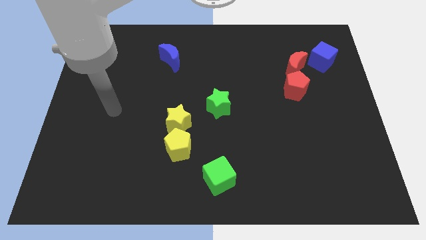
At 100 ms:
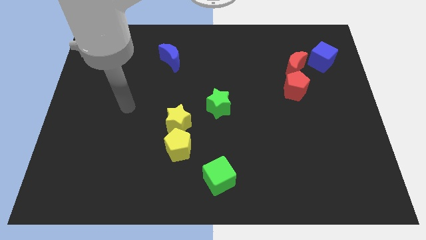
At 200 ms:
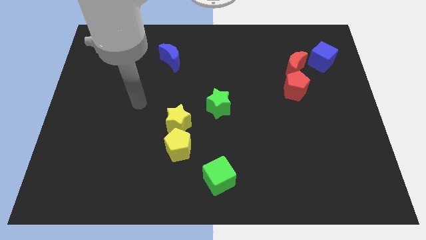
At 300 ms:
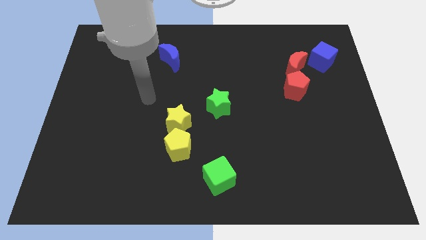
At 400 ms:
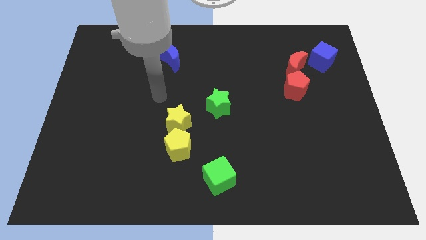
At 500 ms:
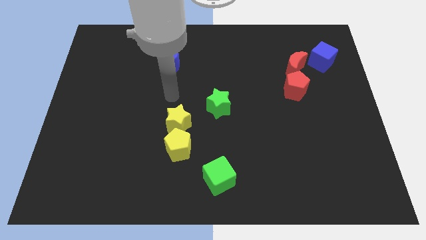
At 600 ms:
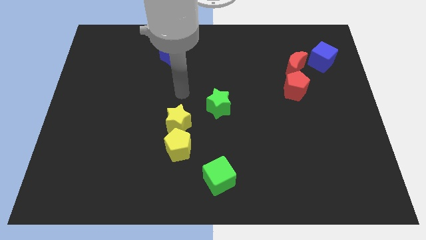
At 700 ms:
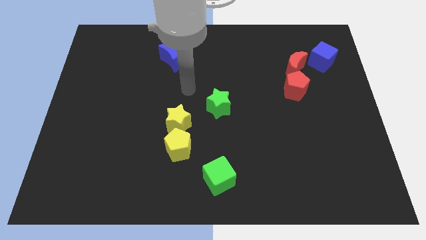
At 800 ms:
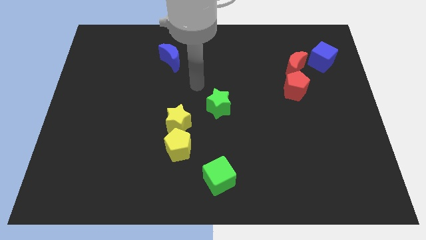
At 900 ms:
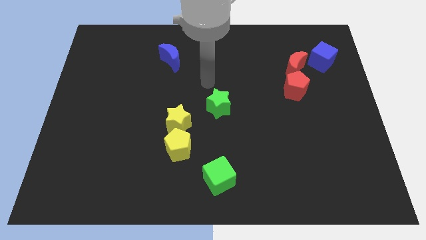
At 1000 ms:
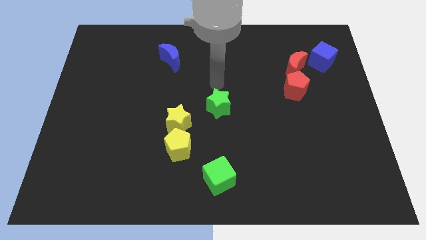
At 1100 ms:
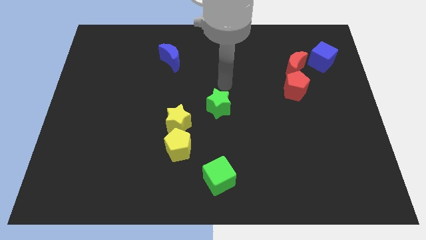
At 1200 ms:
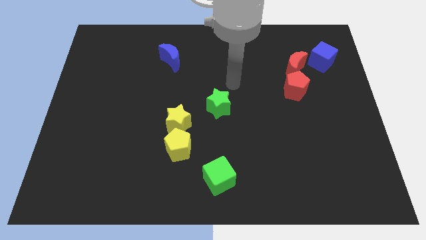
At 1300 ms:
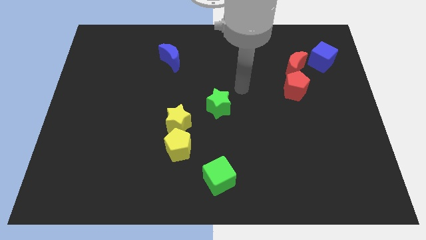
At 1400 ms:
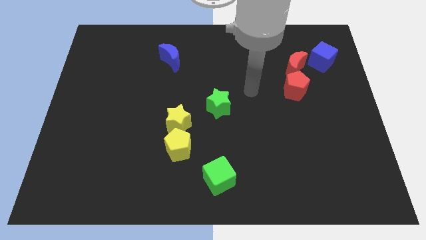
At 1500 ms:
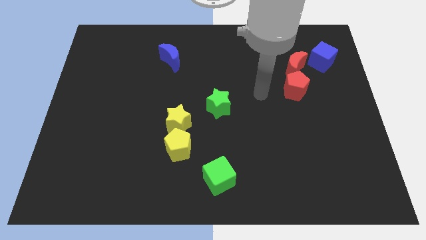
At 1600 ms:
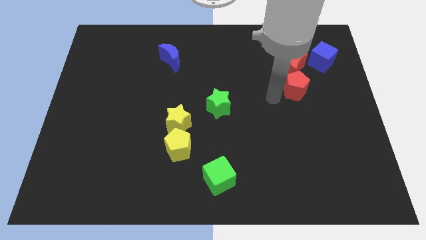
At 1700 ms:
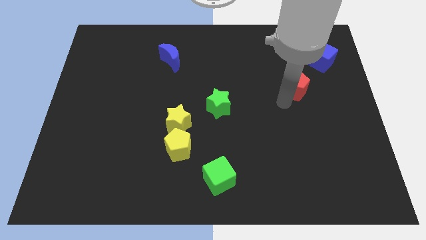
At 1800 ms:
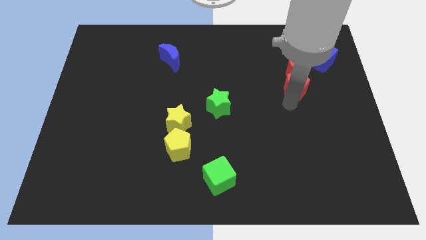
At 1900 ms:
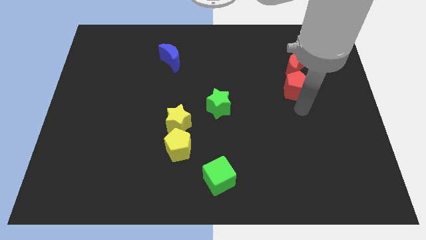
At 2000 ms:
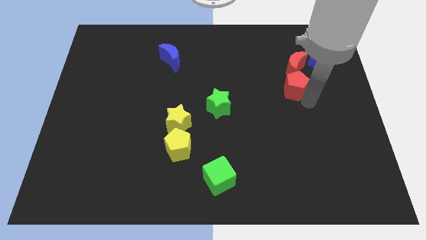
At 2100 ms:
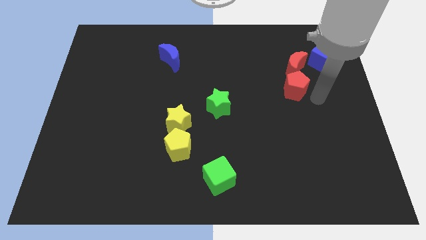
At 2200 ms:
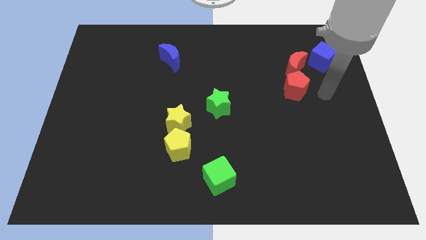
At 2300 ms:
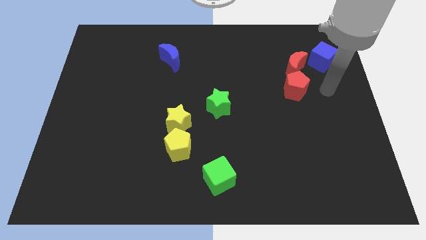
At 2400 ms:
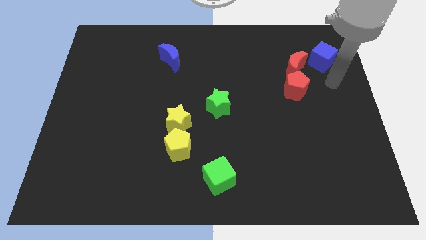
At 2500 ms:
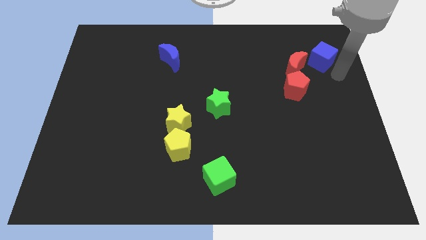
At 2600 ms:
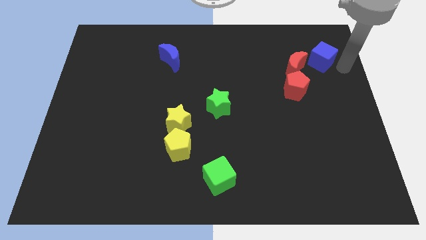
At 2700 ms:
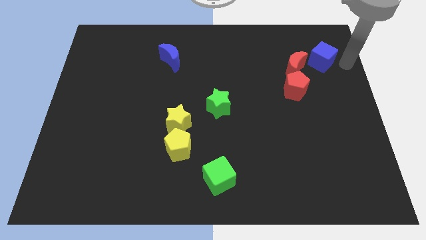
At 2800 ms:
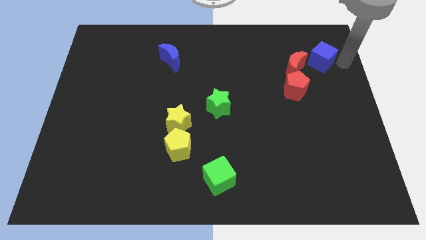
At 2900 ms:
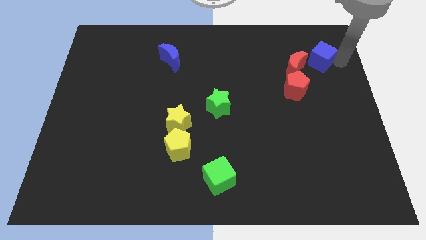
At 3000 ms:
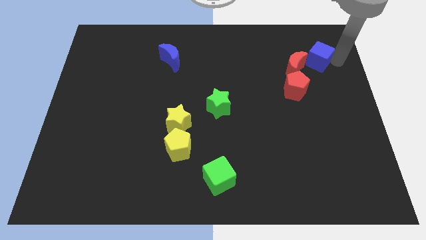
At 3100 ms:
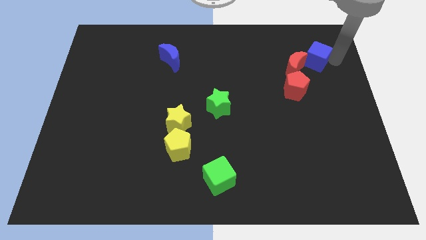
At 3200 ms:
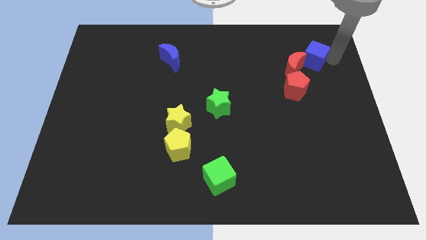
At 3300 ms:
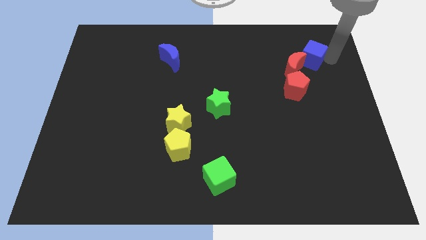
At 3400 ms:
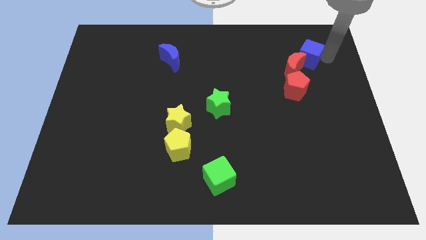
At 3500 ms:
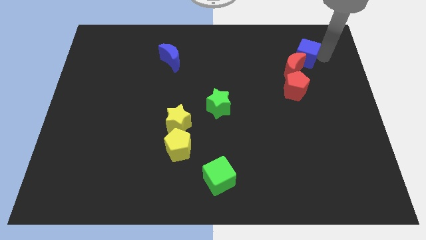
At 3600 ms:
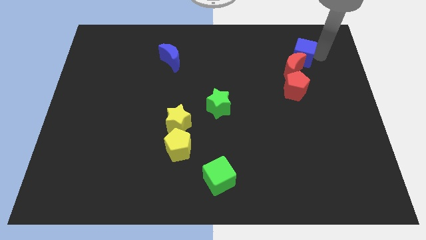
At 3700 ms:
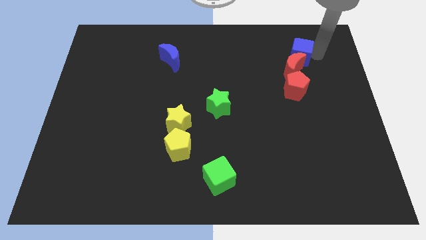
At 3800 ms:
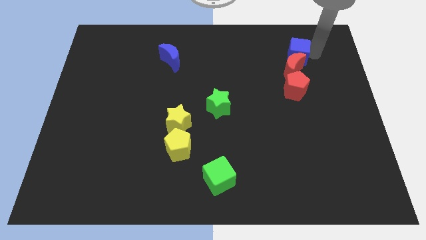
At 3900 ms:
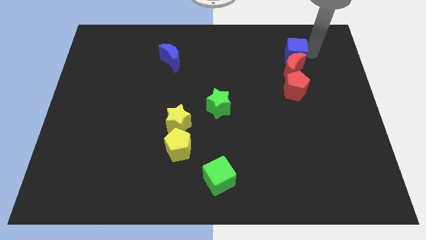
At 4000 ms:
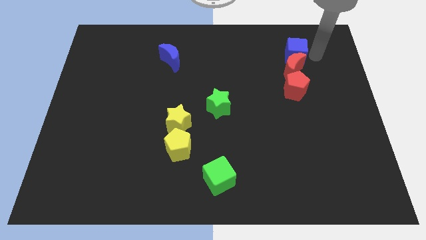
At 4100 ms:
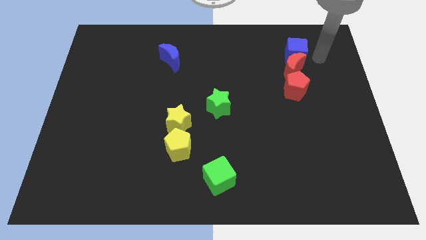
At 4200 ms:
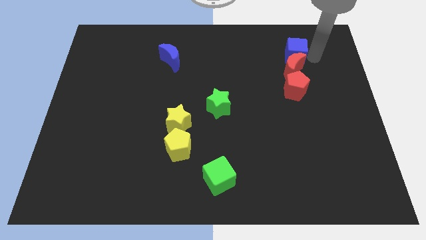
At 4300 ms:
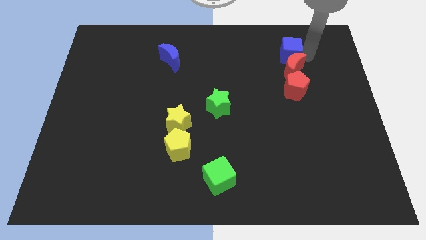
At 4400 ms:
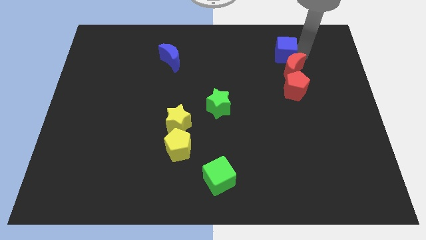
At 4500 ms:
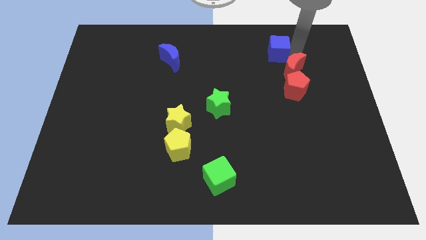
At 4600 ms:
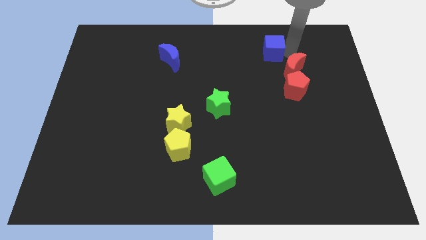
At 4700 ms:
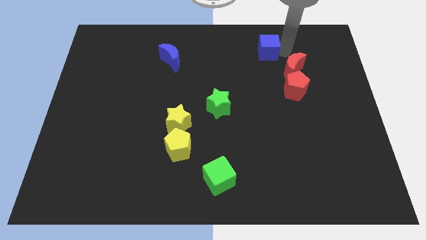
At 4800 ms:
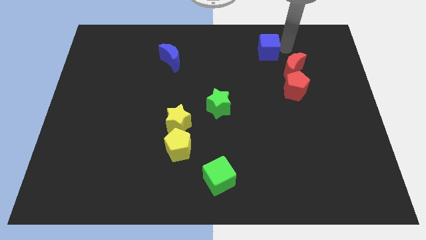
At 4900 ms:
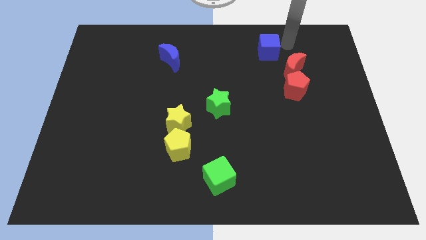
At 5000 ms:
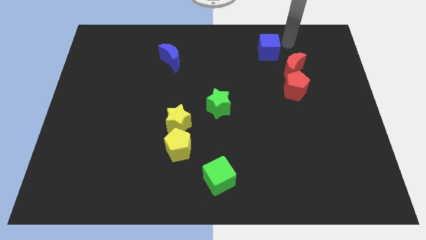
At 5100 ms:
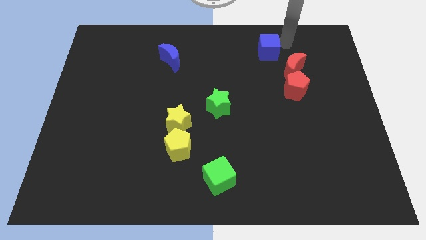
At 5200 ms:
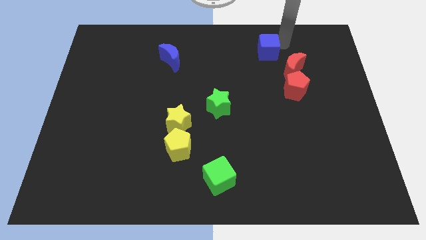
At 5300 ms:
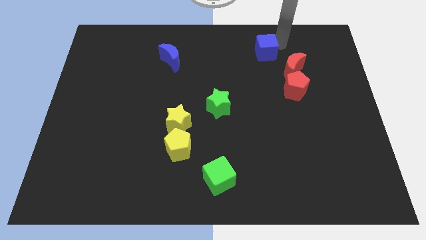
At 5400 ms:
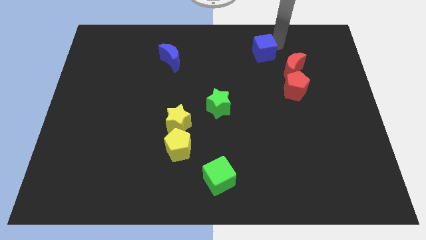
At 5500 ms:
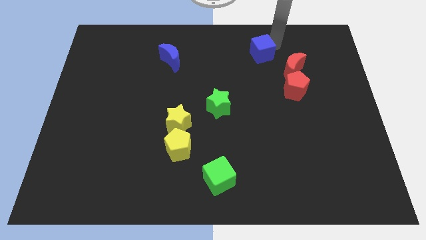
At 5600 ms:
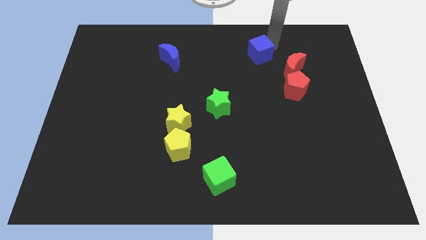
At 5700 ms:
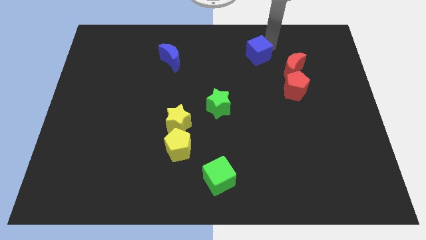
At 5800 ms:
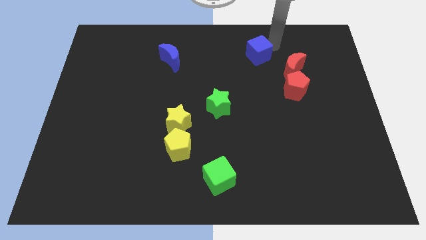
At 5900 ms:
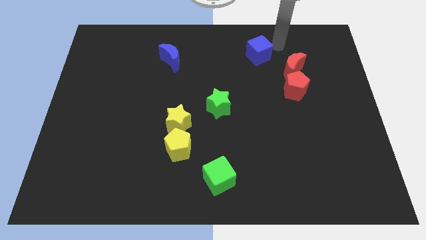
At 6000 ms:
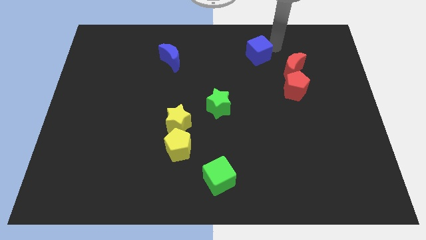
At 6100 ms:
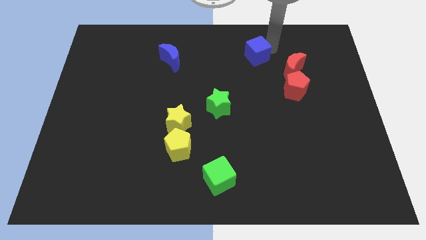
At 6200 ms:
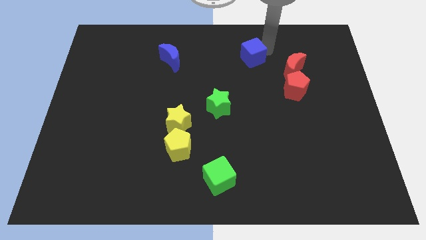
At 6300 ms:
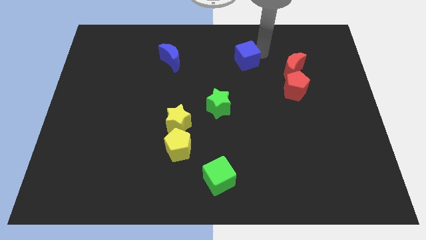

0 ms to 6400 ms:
push the blue cube to the left

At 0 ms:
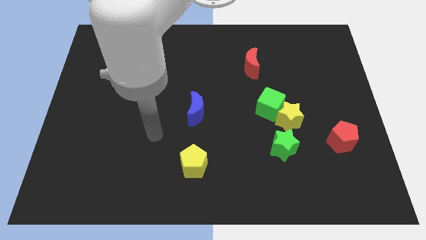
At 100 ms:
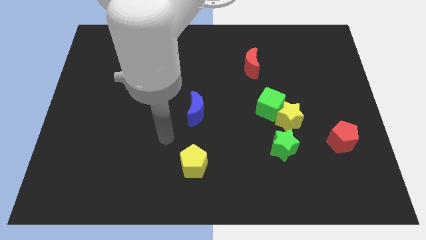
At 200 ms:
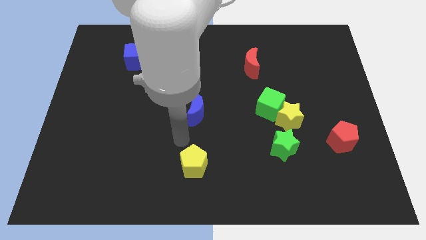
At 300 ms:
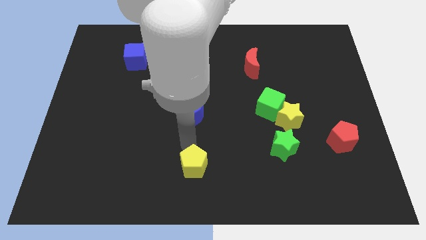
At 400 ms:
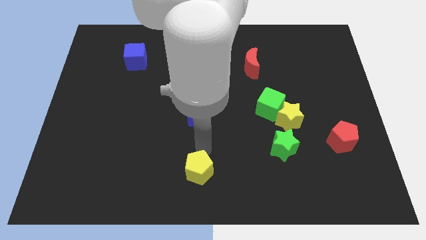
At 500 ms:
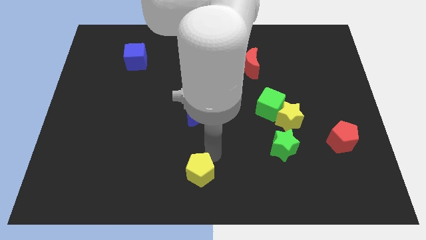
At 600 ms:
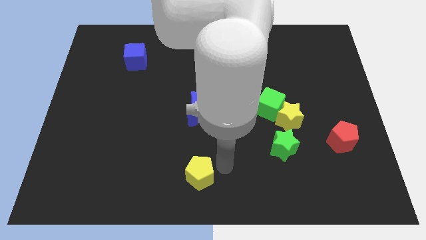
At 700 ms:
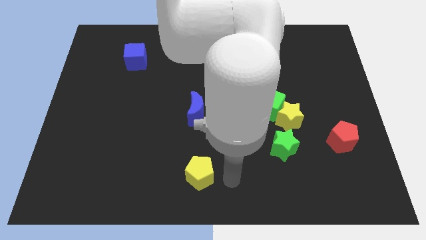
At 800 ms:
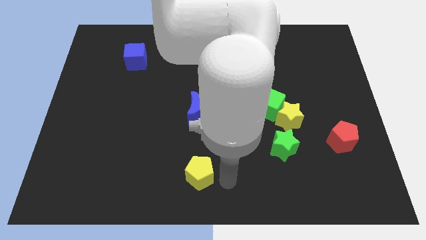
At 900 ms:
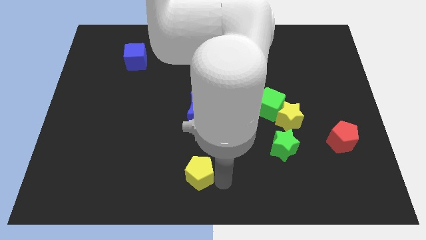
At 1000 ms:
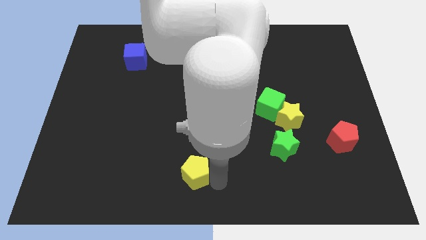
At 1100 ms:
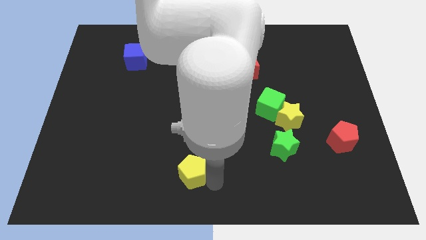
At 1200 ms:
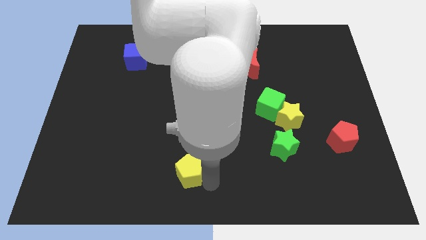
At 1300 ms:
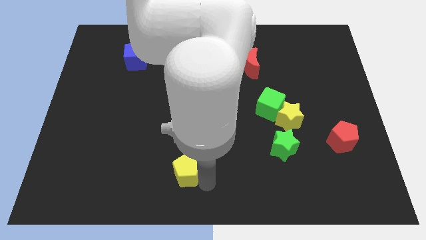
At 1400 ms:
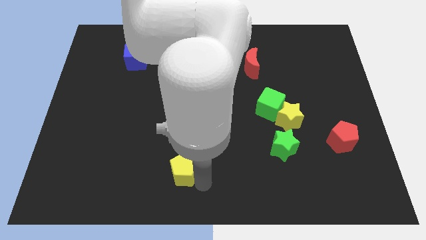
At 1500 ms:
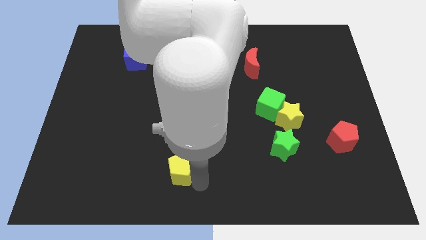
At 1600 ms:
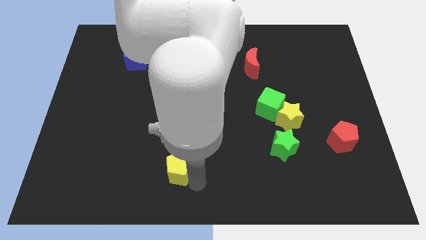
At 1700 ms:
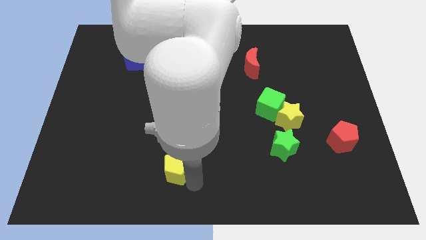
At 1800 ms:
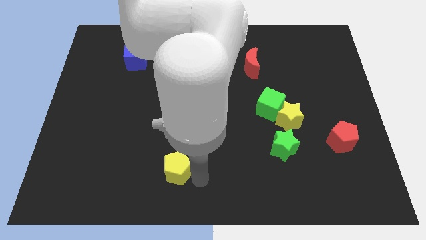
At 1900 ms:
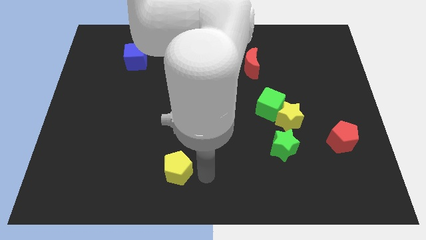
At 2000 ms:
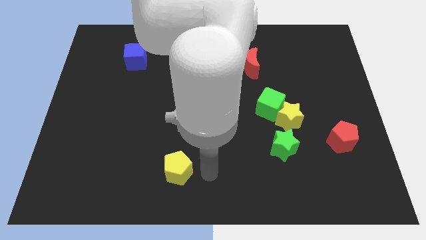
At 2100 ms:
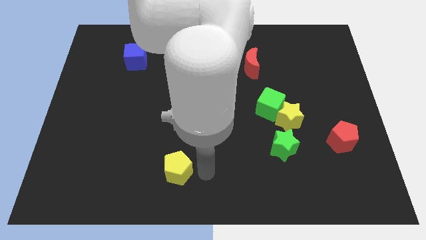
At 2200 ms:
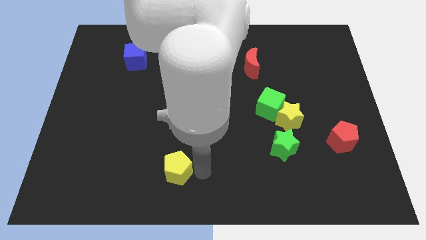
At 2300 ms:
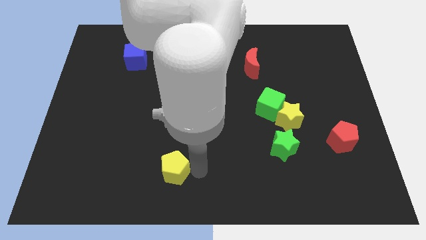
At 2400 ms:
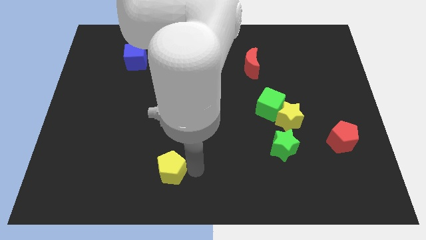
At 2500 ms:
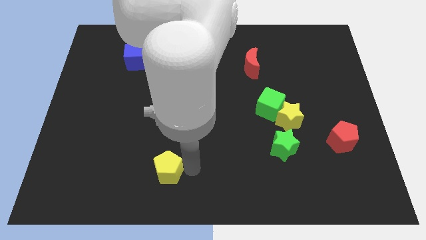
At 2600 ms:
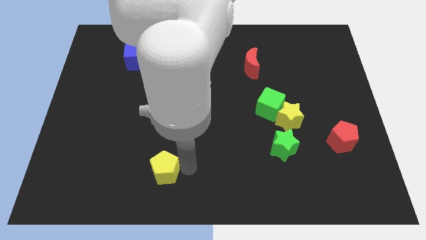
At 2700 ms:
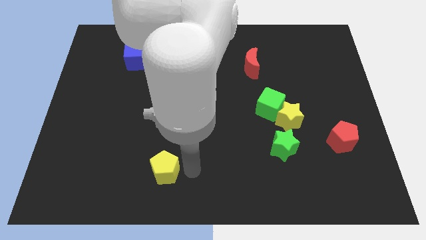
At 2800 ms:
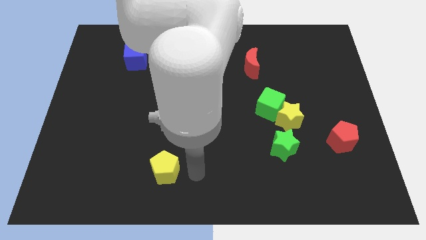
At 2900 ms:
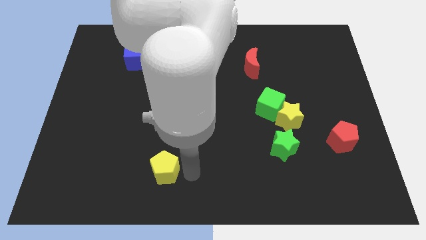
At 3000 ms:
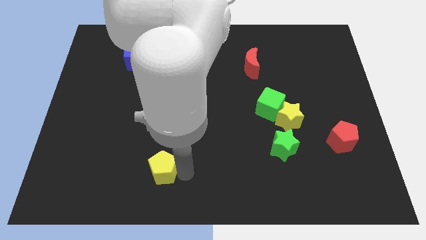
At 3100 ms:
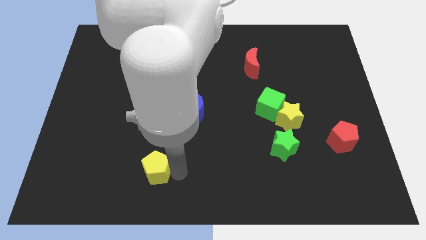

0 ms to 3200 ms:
slightly push the yellow pentagon to the left
